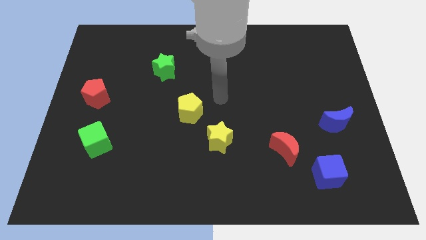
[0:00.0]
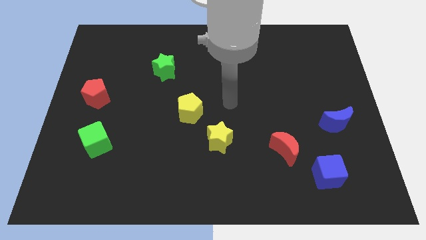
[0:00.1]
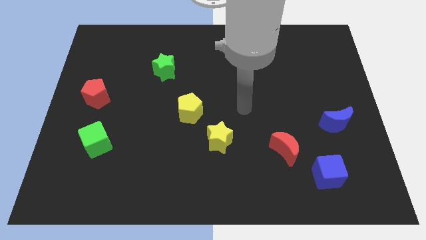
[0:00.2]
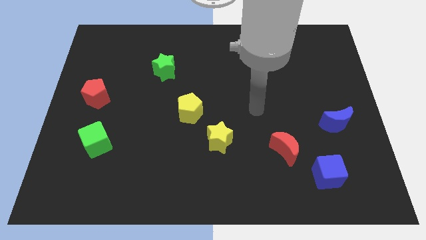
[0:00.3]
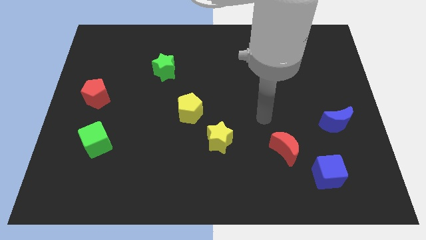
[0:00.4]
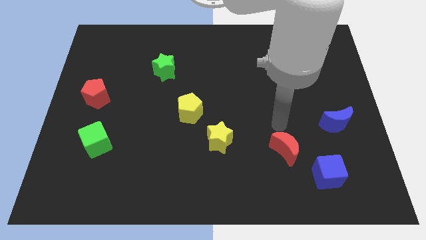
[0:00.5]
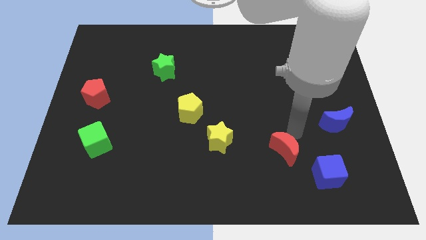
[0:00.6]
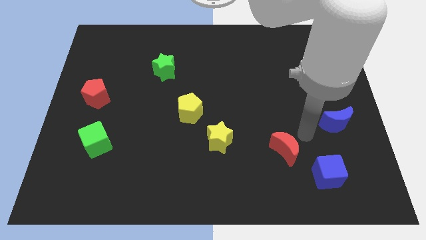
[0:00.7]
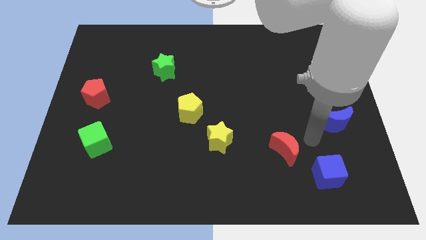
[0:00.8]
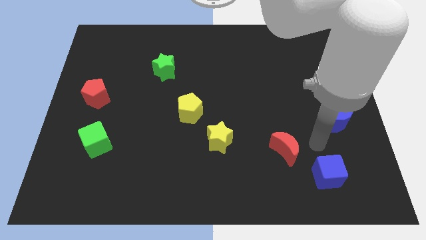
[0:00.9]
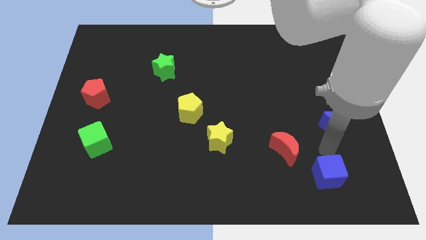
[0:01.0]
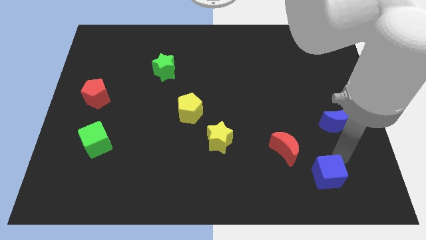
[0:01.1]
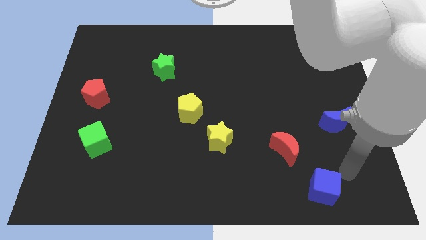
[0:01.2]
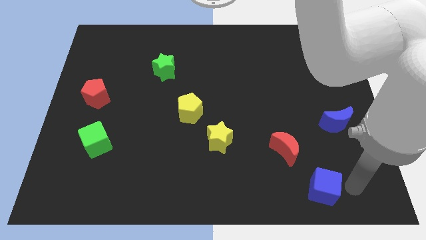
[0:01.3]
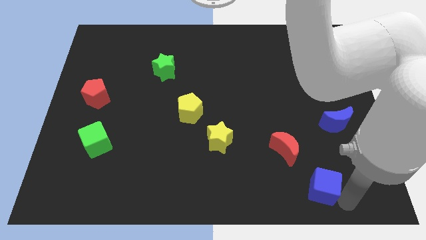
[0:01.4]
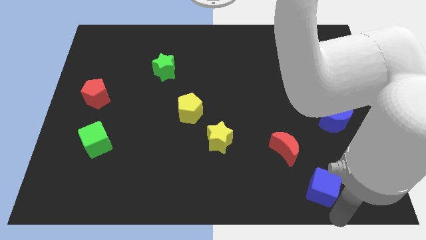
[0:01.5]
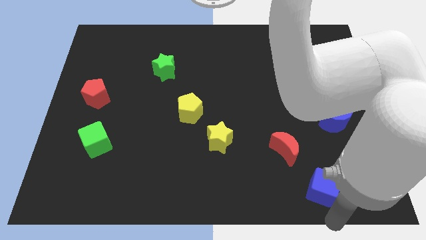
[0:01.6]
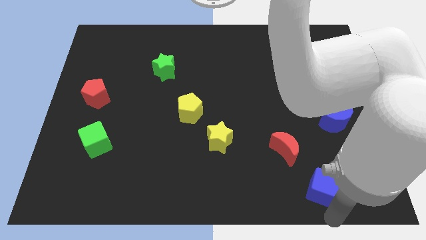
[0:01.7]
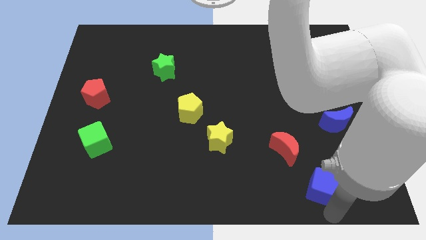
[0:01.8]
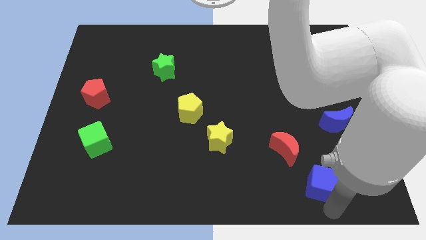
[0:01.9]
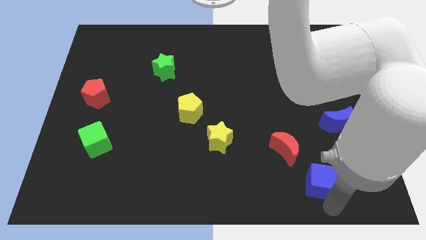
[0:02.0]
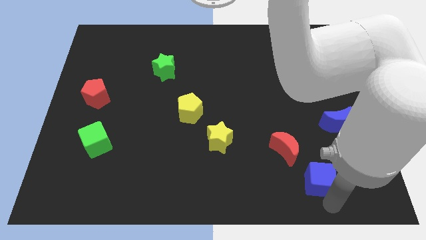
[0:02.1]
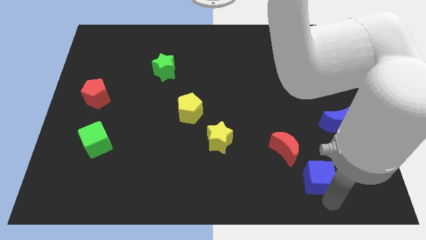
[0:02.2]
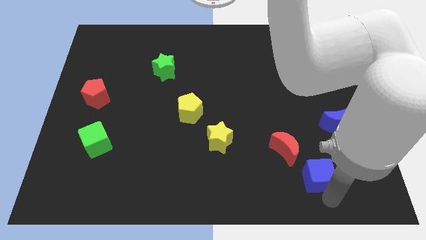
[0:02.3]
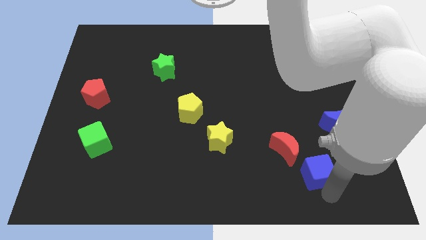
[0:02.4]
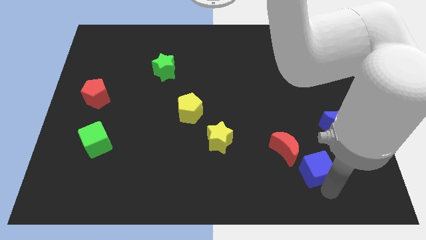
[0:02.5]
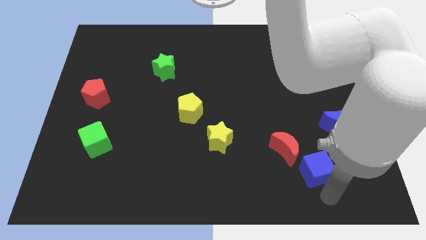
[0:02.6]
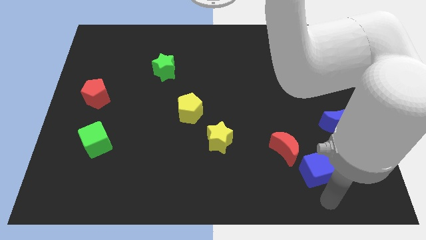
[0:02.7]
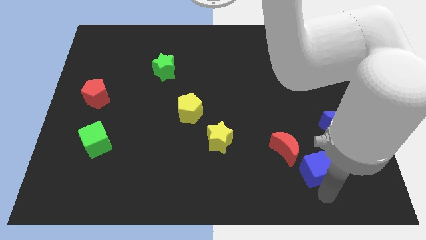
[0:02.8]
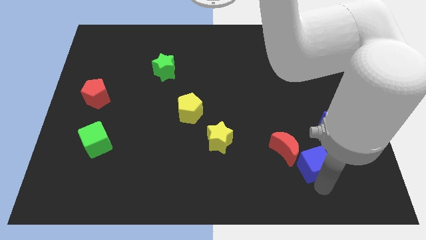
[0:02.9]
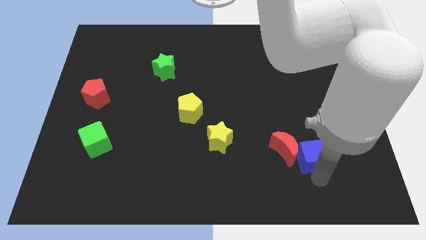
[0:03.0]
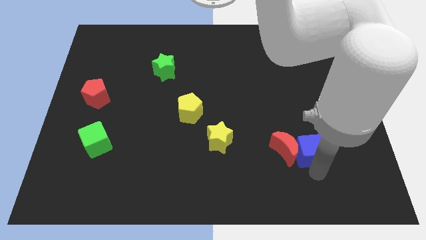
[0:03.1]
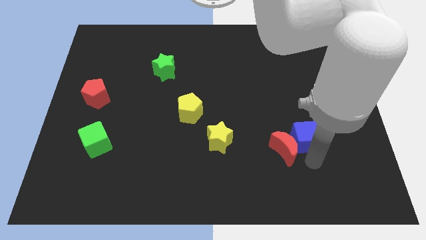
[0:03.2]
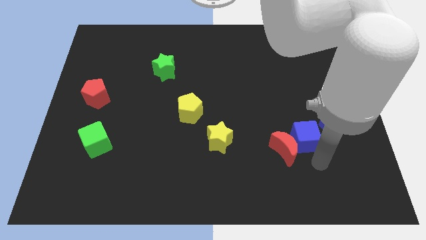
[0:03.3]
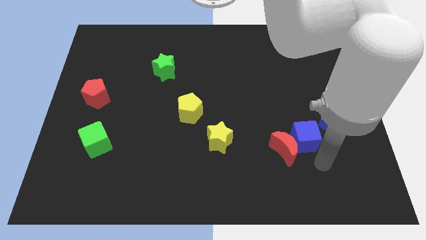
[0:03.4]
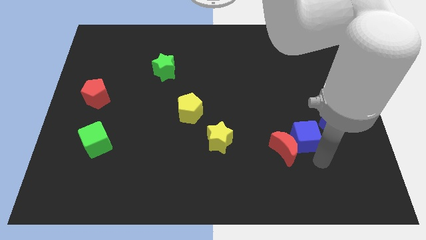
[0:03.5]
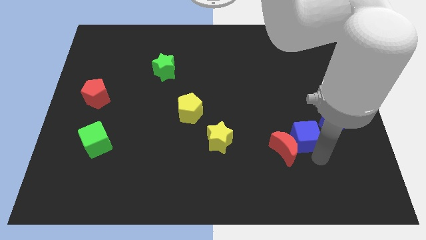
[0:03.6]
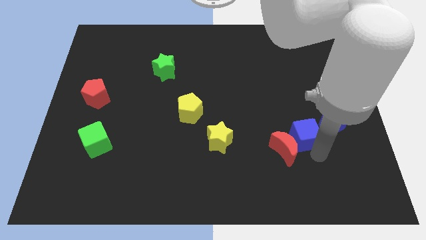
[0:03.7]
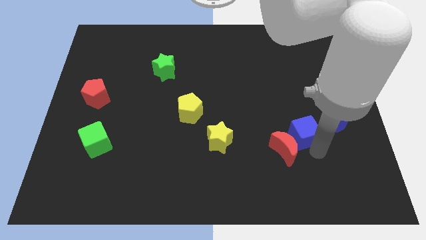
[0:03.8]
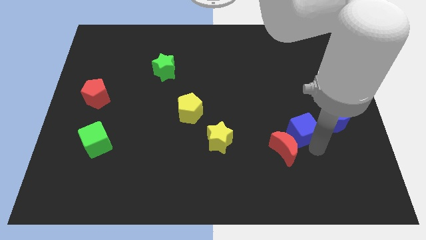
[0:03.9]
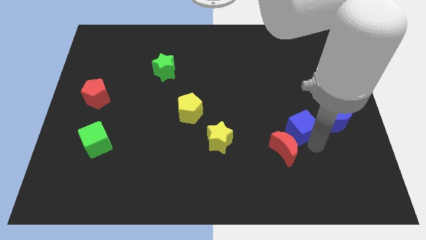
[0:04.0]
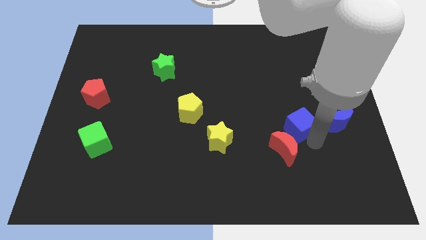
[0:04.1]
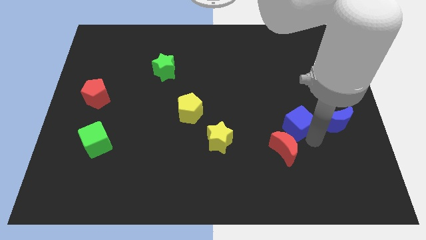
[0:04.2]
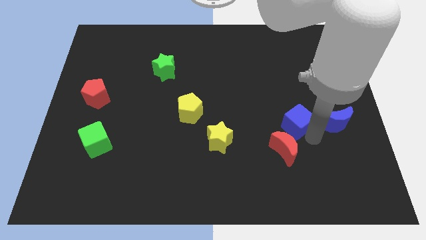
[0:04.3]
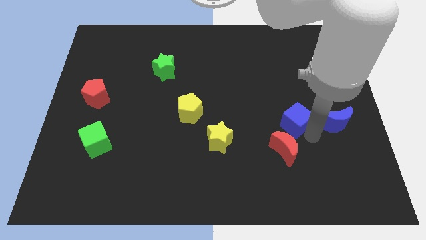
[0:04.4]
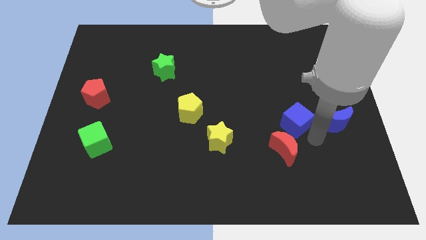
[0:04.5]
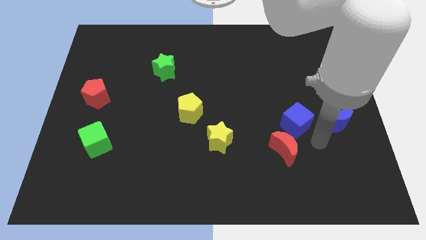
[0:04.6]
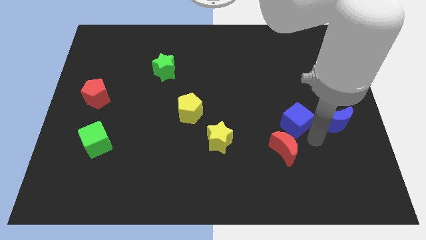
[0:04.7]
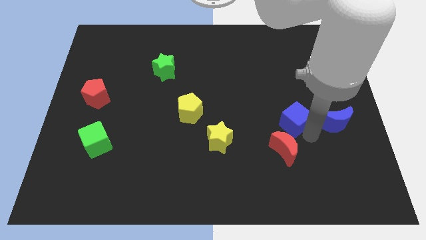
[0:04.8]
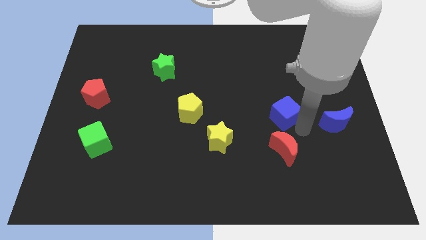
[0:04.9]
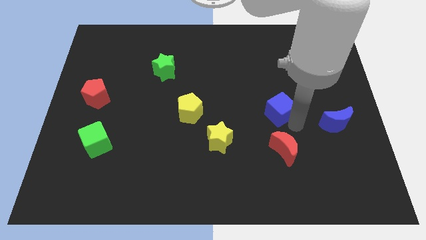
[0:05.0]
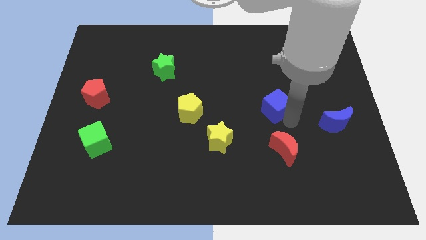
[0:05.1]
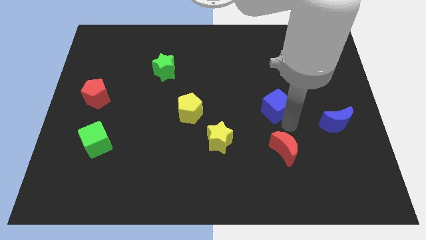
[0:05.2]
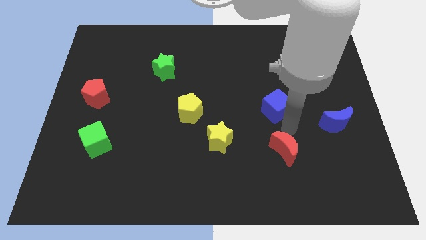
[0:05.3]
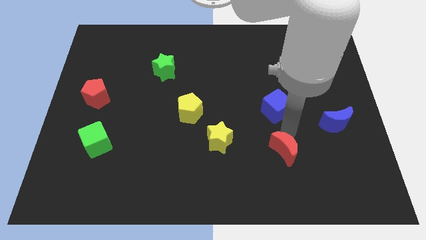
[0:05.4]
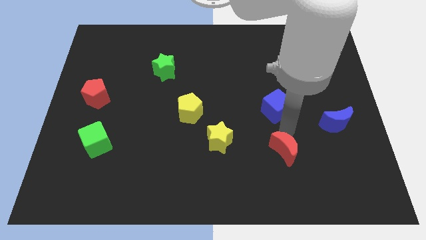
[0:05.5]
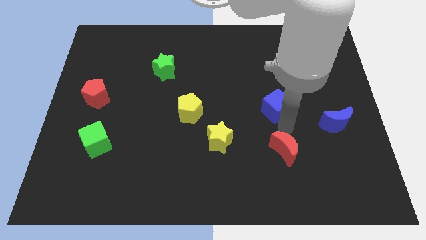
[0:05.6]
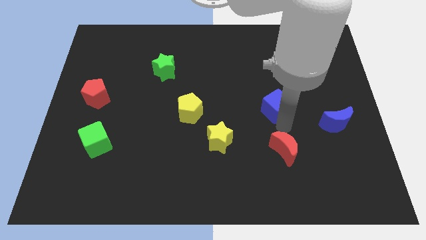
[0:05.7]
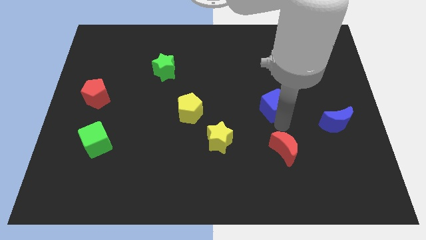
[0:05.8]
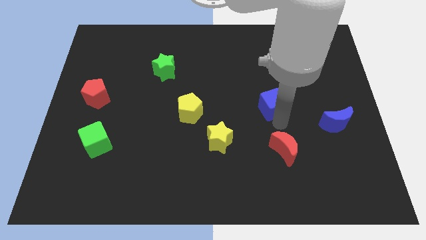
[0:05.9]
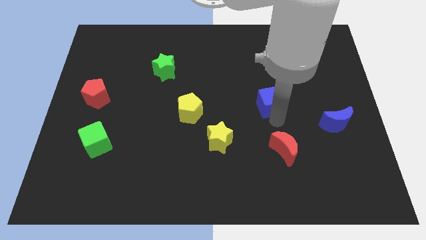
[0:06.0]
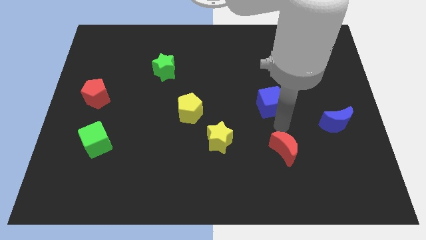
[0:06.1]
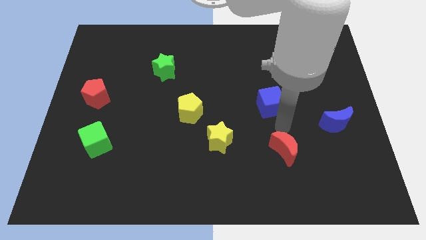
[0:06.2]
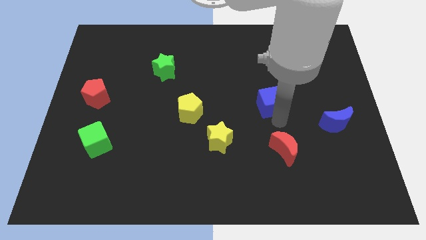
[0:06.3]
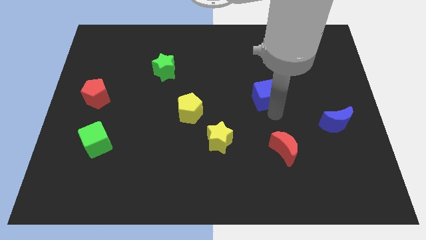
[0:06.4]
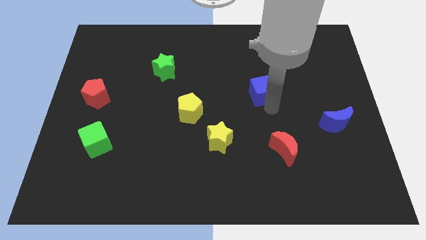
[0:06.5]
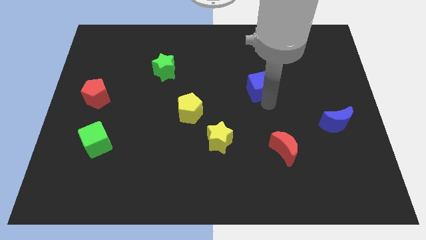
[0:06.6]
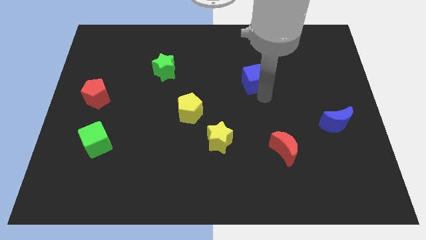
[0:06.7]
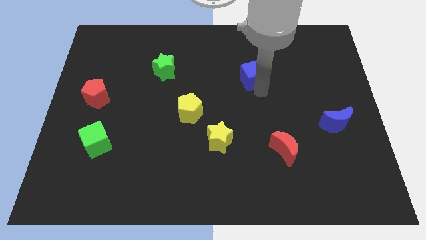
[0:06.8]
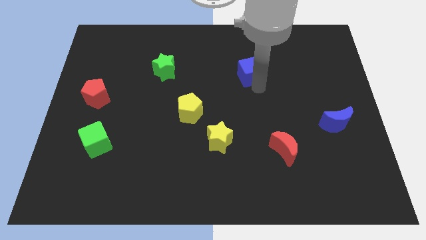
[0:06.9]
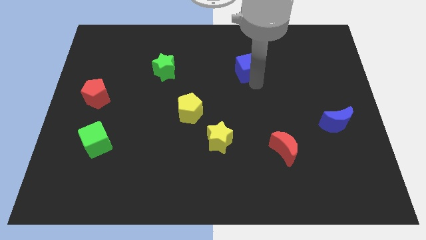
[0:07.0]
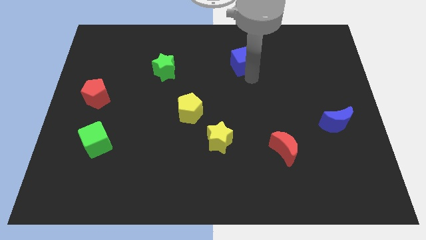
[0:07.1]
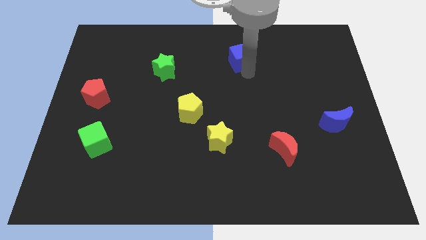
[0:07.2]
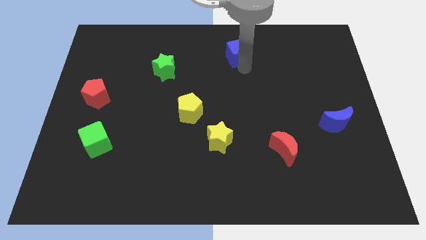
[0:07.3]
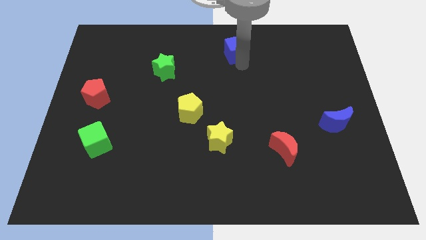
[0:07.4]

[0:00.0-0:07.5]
slide the blue cube to the top side
